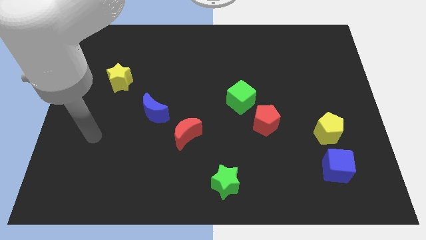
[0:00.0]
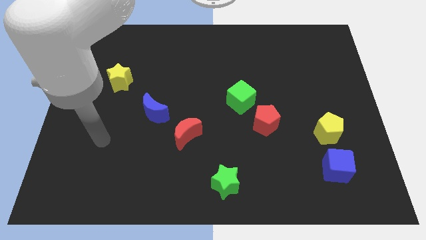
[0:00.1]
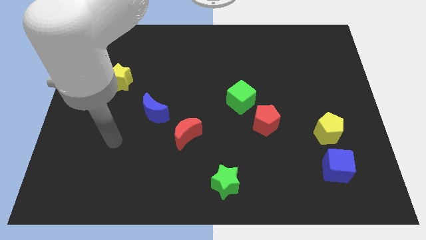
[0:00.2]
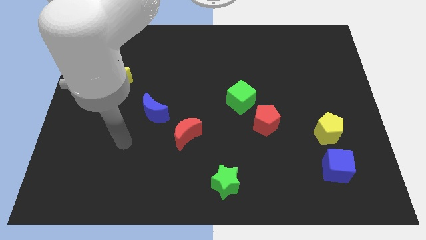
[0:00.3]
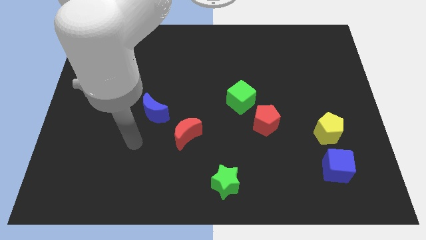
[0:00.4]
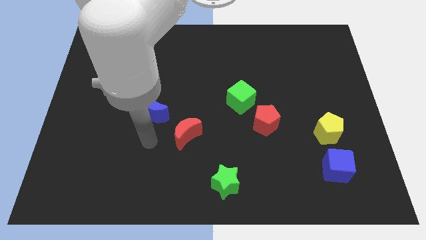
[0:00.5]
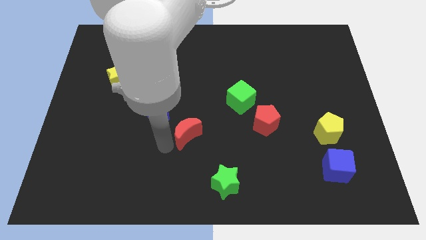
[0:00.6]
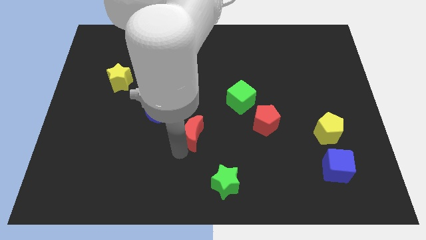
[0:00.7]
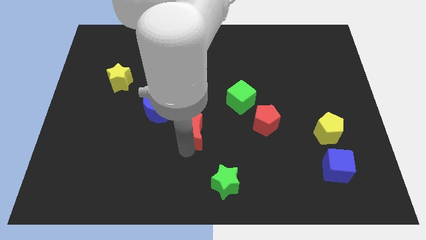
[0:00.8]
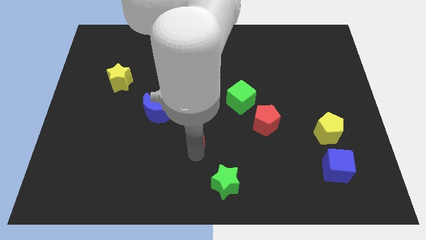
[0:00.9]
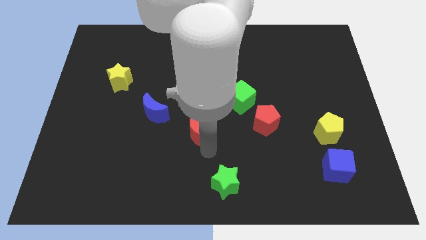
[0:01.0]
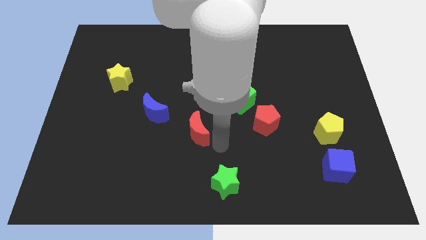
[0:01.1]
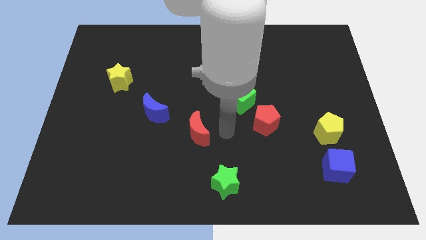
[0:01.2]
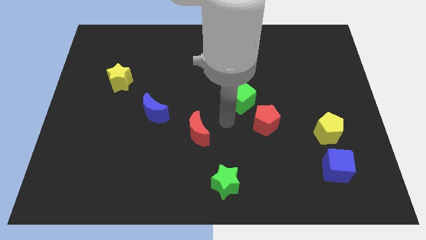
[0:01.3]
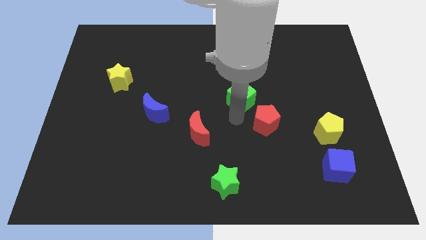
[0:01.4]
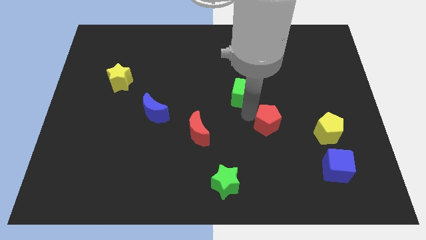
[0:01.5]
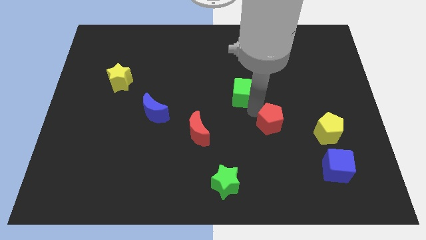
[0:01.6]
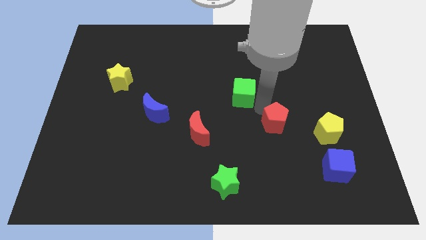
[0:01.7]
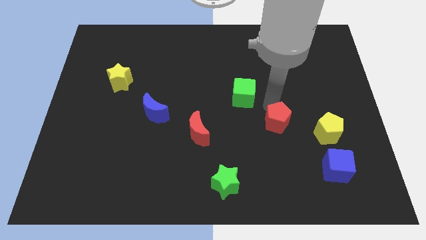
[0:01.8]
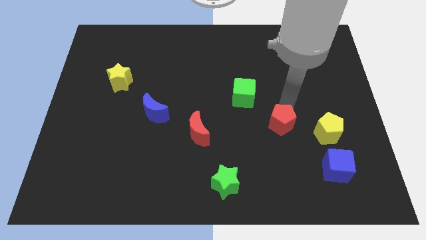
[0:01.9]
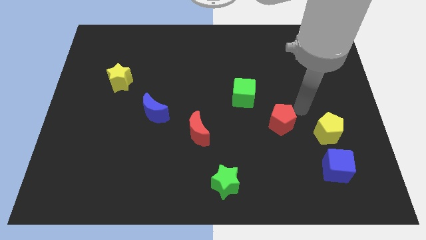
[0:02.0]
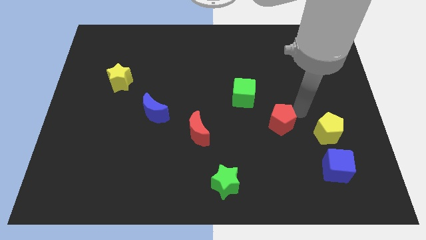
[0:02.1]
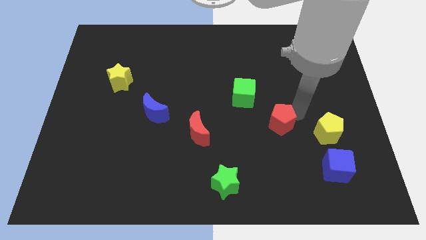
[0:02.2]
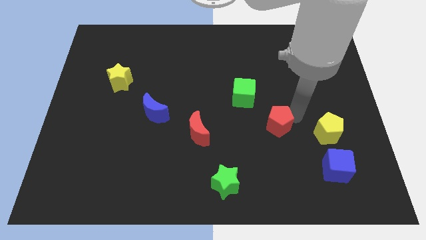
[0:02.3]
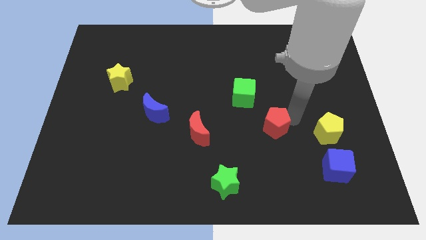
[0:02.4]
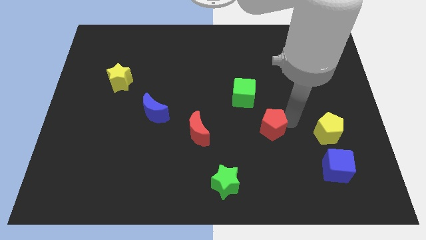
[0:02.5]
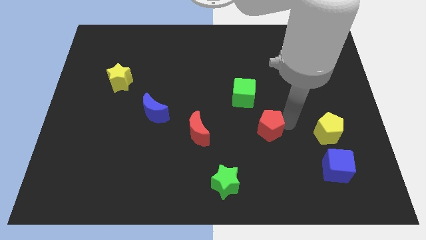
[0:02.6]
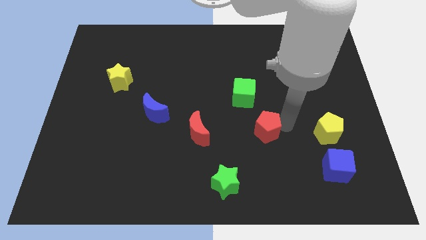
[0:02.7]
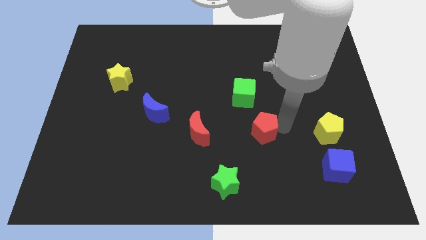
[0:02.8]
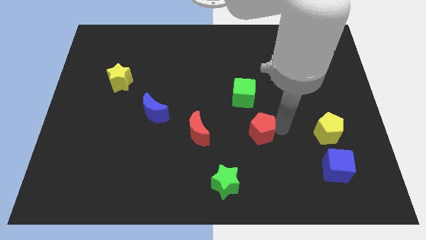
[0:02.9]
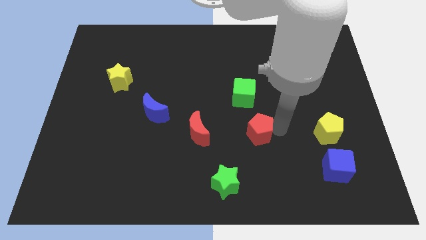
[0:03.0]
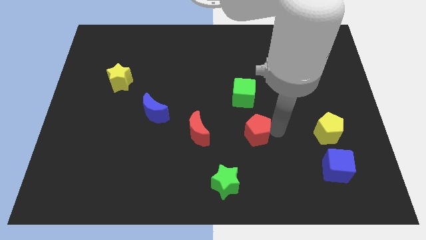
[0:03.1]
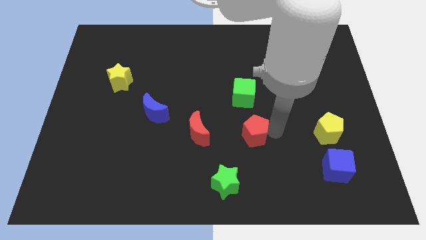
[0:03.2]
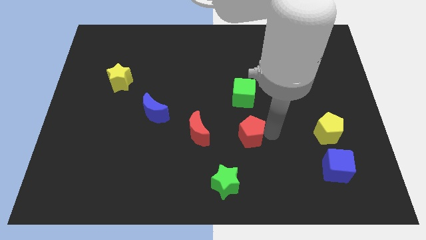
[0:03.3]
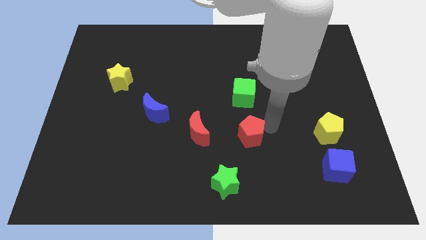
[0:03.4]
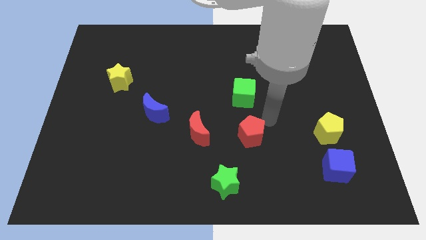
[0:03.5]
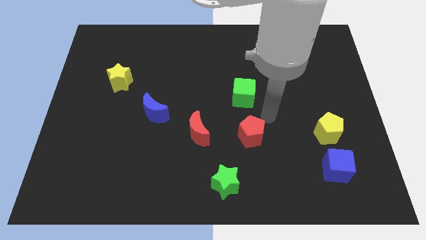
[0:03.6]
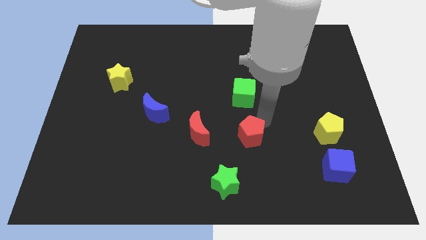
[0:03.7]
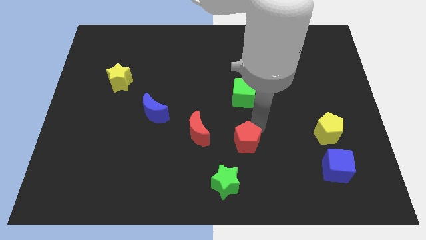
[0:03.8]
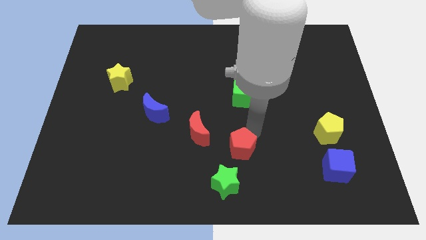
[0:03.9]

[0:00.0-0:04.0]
push the red pentagon slightly down and to the left diagonally

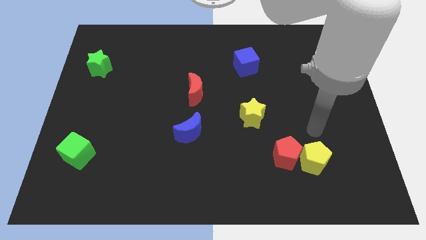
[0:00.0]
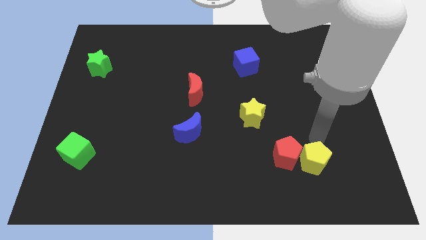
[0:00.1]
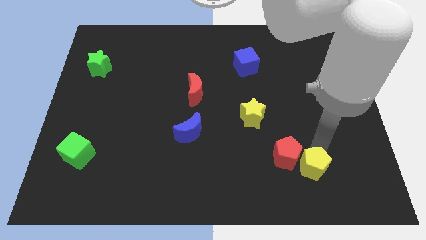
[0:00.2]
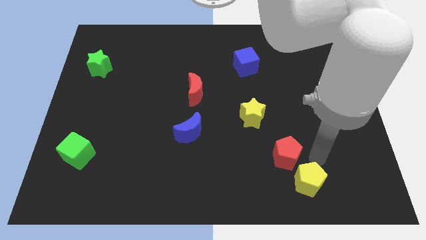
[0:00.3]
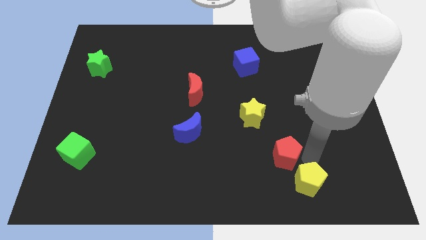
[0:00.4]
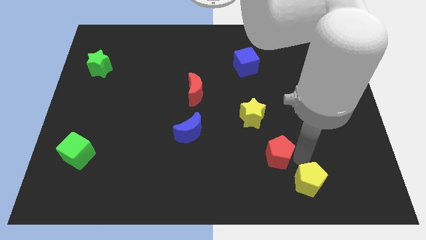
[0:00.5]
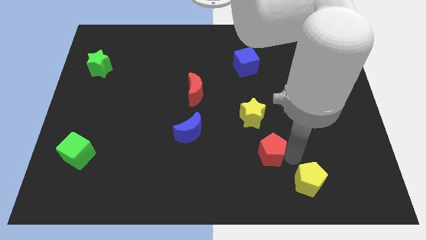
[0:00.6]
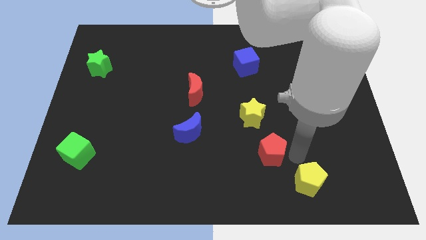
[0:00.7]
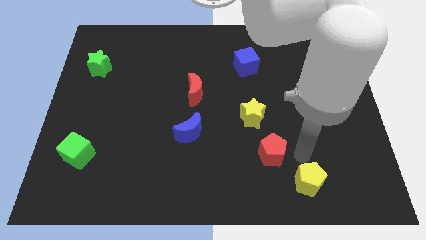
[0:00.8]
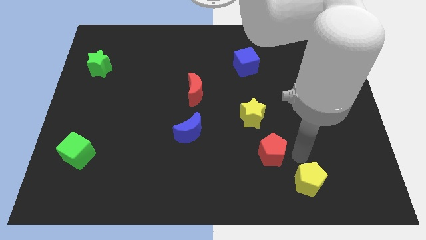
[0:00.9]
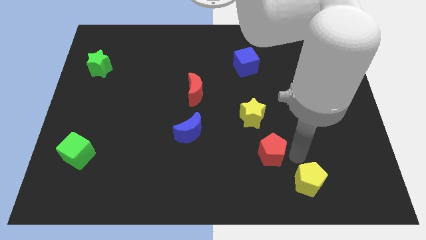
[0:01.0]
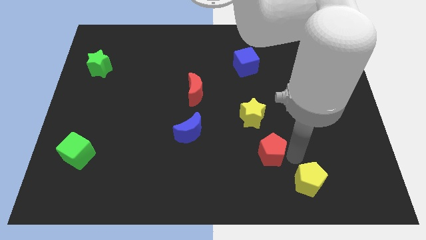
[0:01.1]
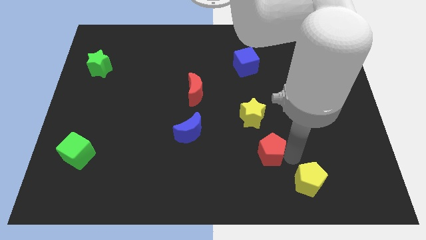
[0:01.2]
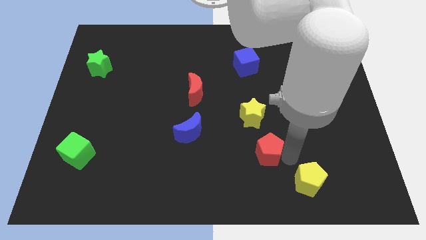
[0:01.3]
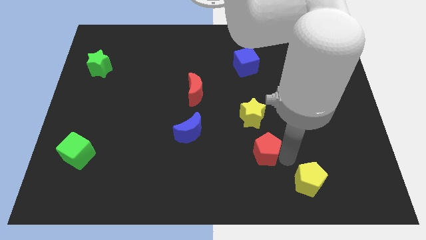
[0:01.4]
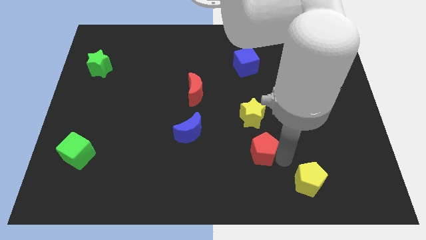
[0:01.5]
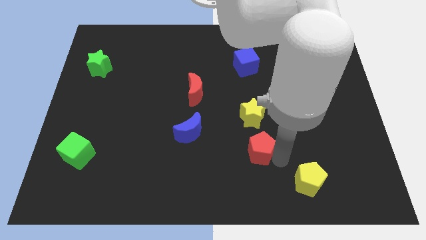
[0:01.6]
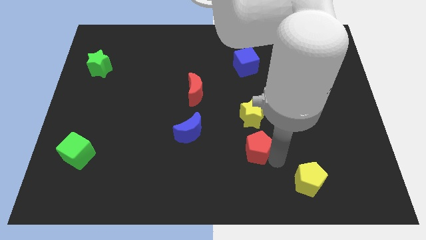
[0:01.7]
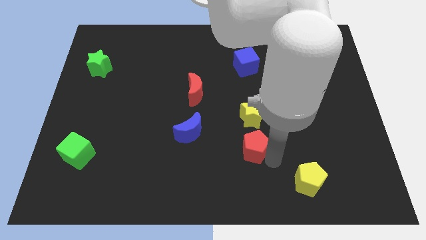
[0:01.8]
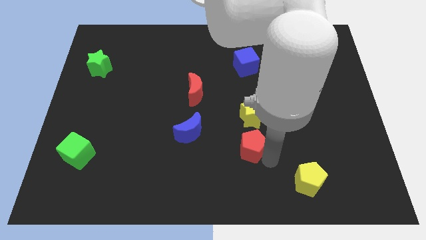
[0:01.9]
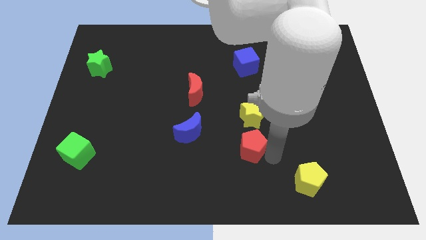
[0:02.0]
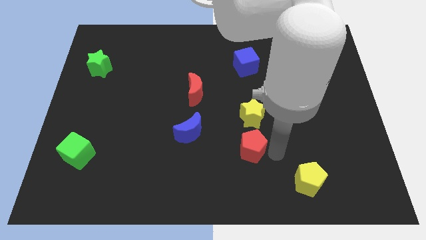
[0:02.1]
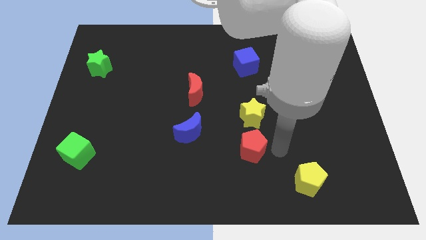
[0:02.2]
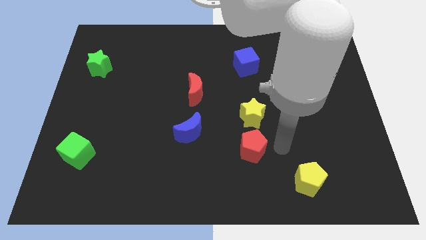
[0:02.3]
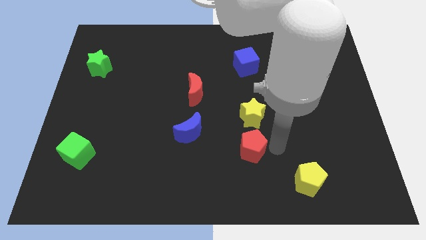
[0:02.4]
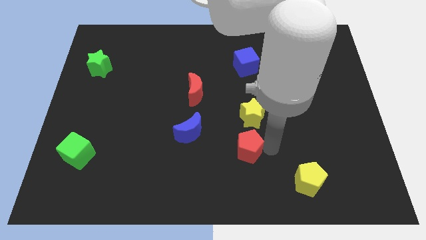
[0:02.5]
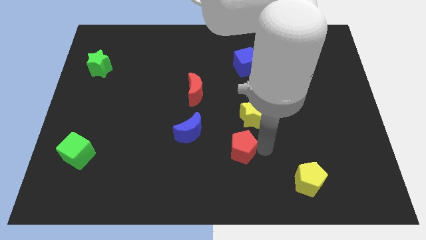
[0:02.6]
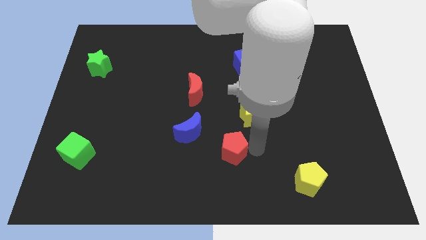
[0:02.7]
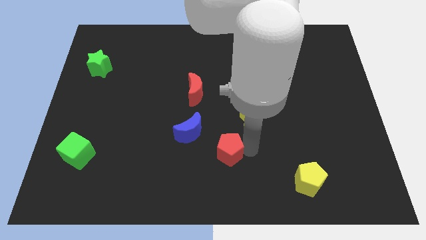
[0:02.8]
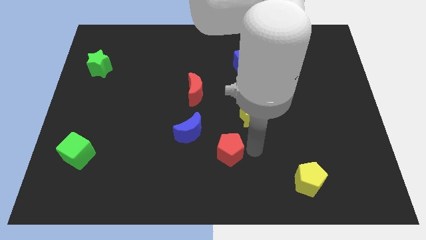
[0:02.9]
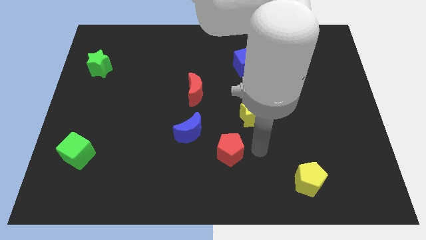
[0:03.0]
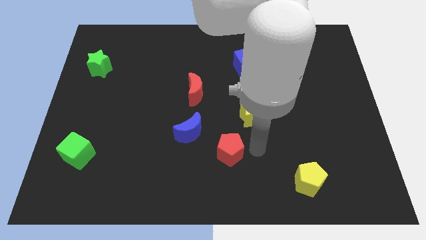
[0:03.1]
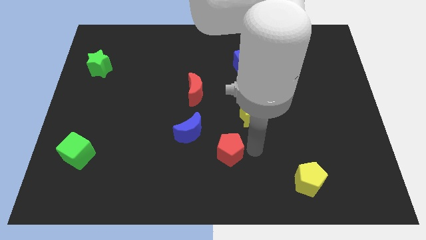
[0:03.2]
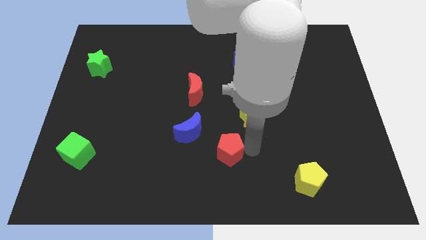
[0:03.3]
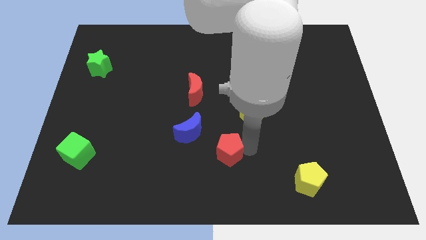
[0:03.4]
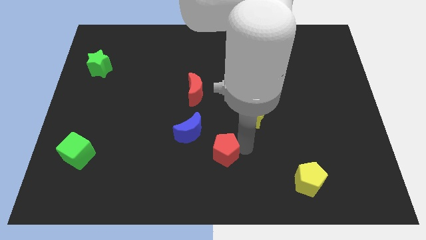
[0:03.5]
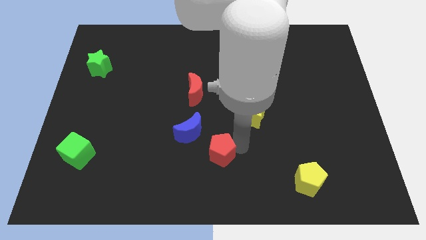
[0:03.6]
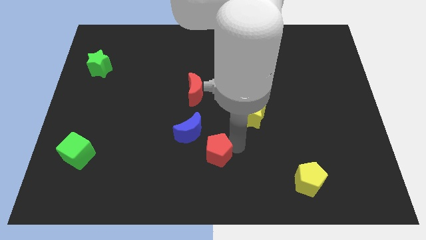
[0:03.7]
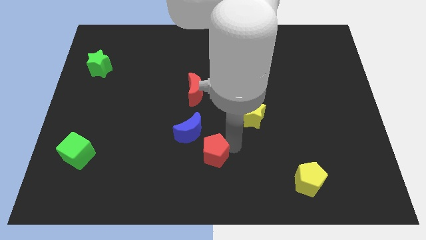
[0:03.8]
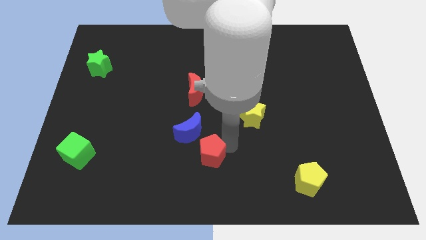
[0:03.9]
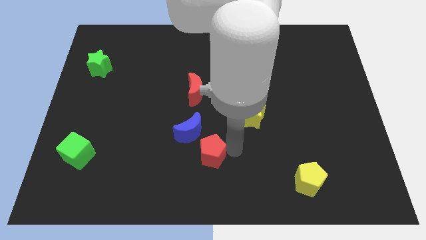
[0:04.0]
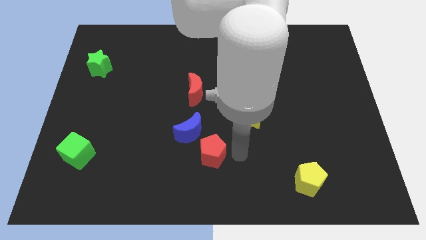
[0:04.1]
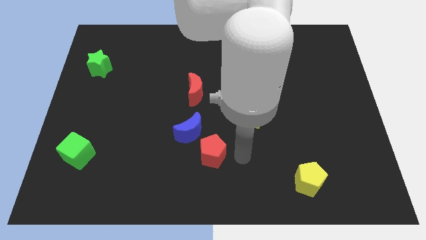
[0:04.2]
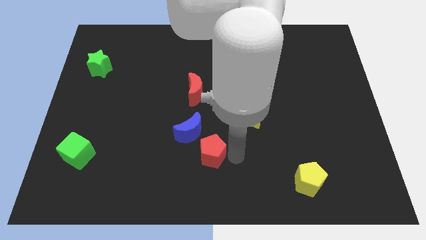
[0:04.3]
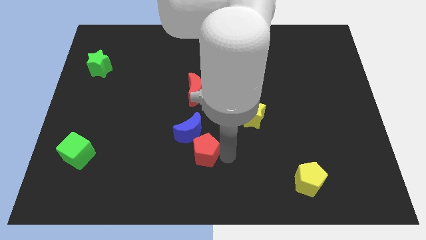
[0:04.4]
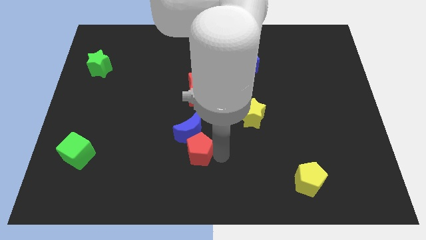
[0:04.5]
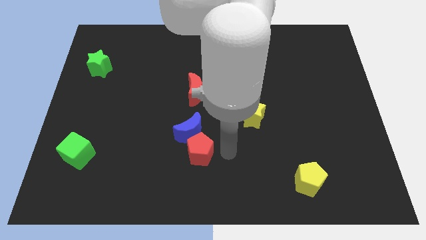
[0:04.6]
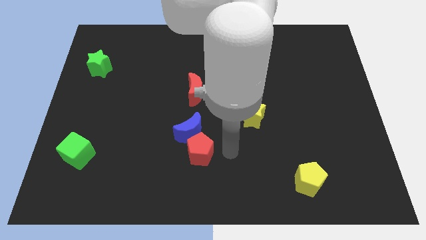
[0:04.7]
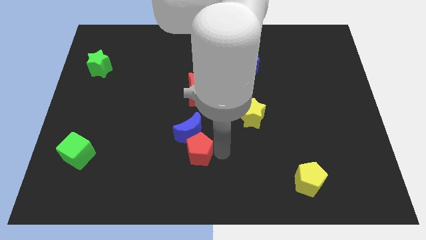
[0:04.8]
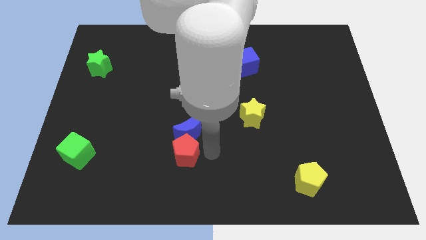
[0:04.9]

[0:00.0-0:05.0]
slide the red pentagon left
